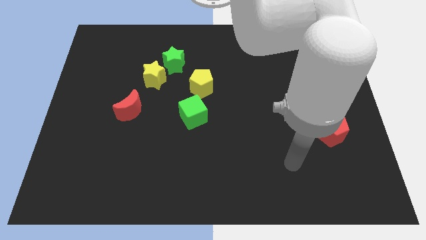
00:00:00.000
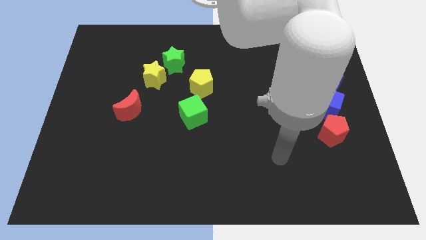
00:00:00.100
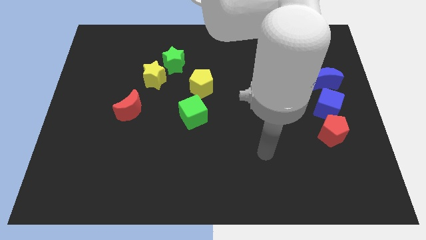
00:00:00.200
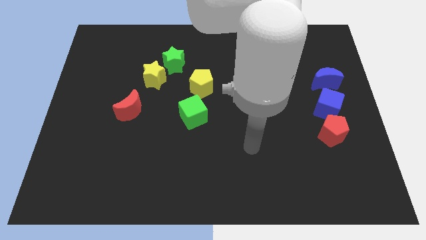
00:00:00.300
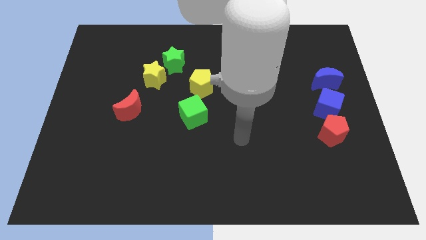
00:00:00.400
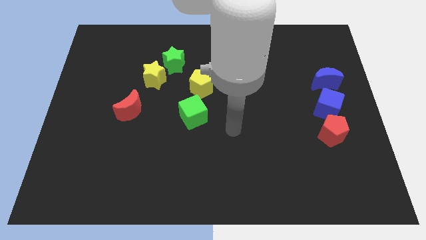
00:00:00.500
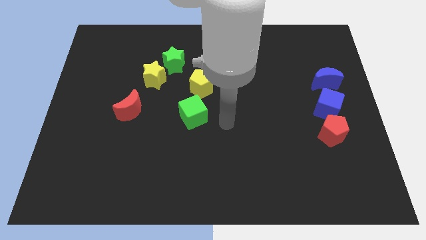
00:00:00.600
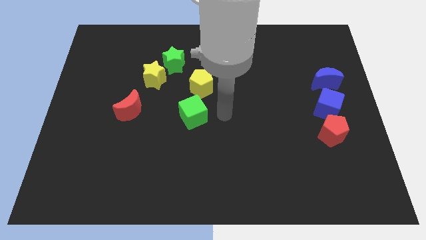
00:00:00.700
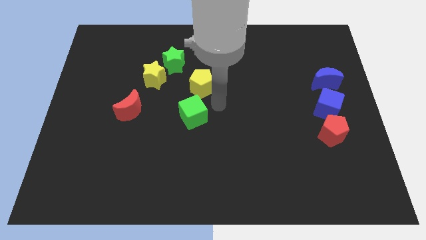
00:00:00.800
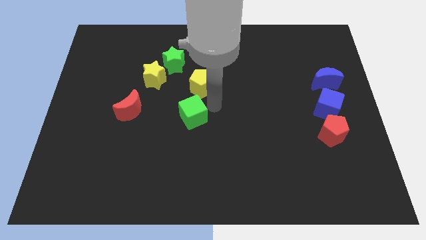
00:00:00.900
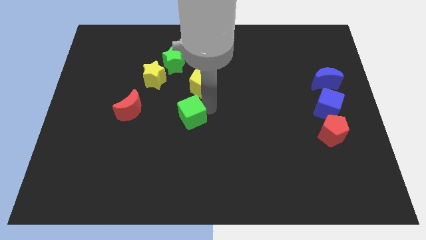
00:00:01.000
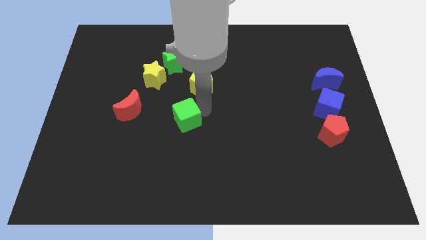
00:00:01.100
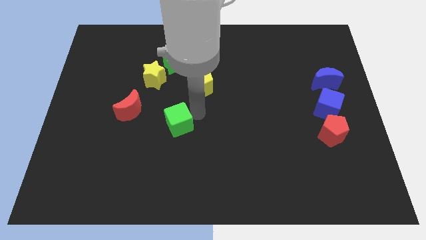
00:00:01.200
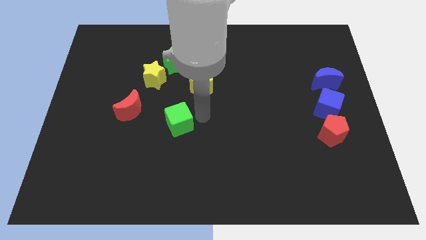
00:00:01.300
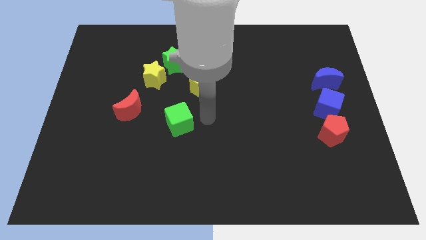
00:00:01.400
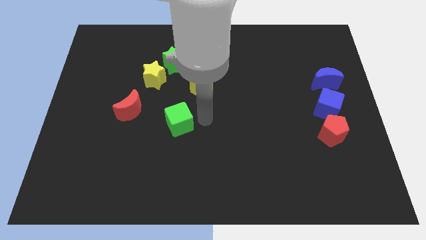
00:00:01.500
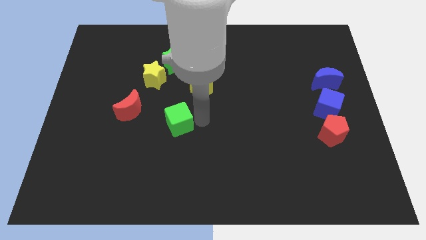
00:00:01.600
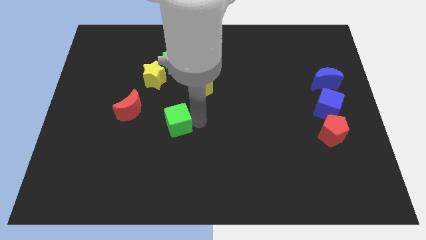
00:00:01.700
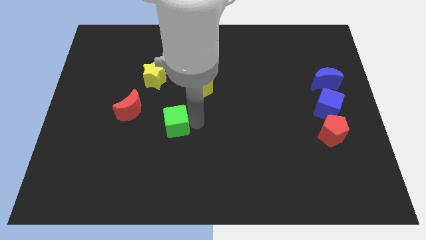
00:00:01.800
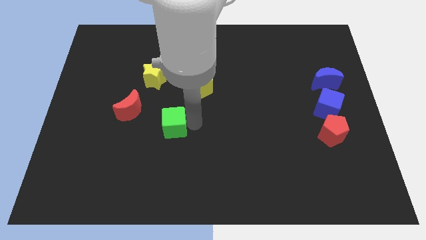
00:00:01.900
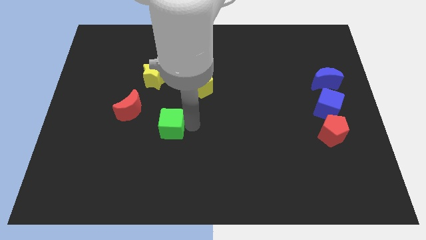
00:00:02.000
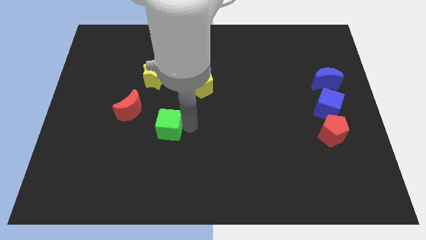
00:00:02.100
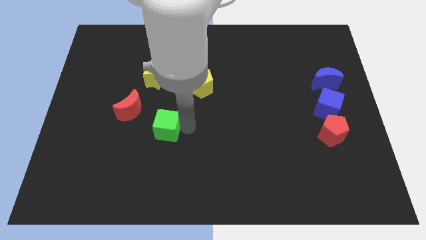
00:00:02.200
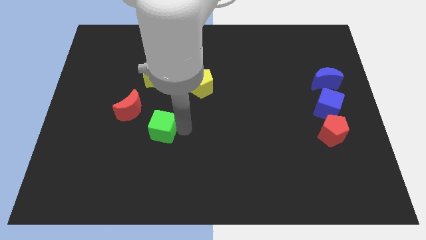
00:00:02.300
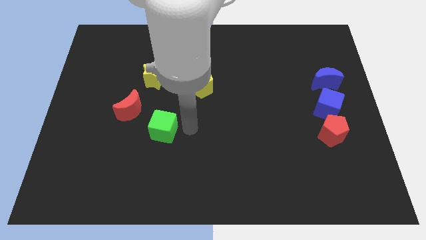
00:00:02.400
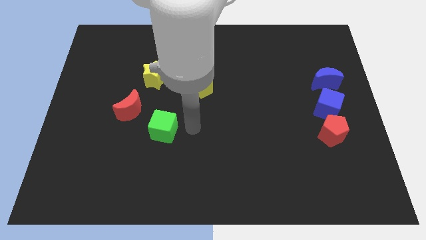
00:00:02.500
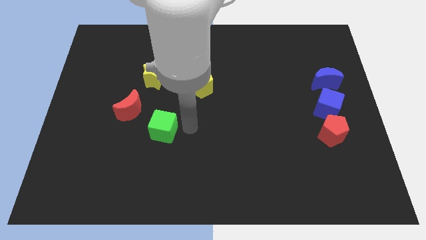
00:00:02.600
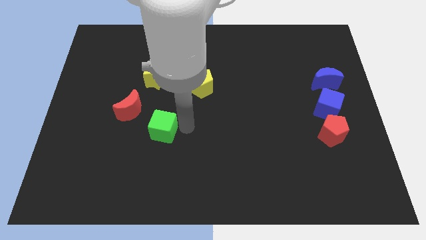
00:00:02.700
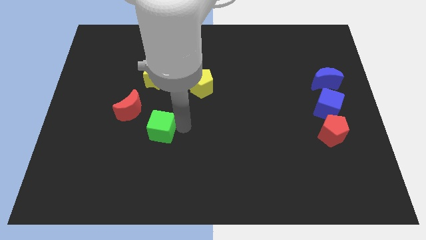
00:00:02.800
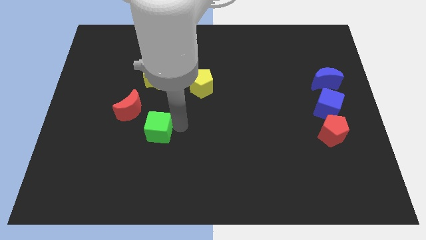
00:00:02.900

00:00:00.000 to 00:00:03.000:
slightly push the green cube to the left

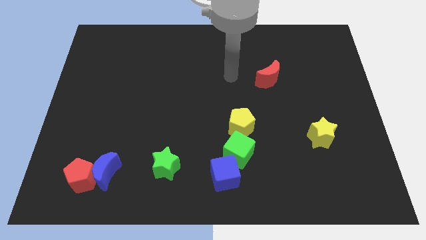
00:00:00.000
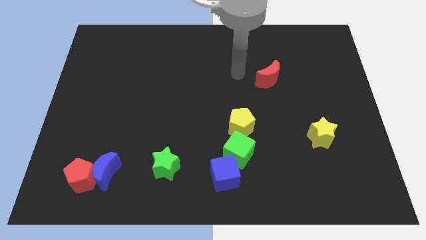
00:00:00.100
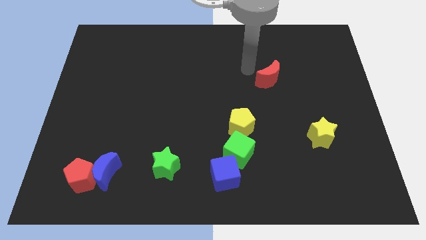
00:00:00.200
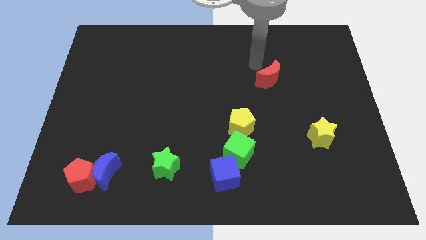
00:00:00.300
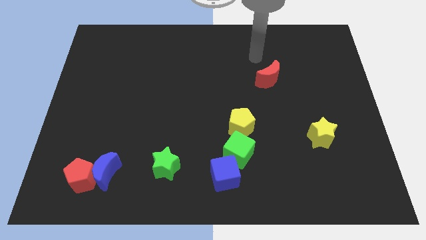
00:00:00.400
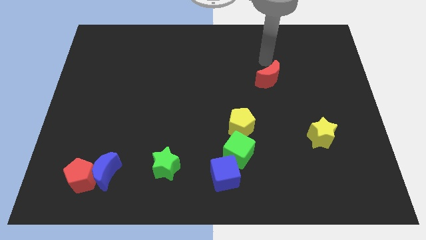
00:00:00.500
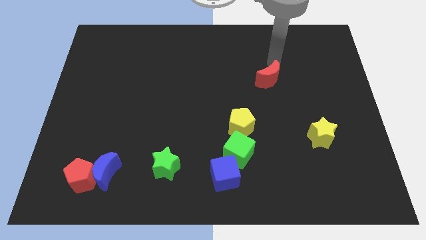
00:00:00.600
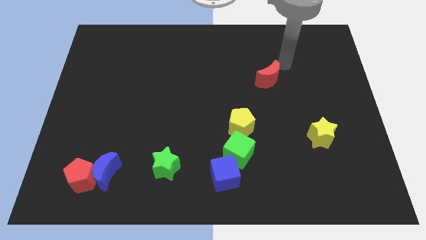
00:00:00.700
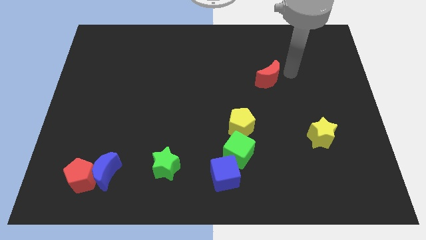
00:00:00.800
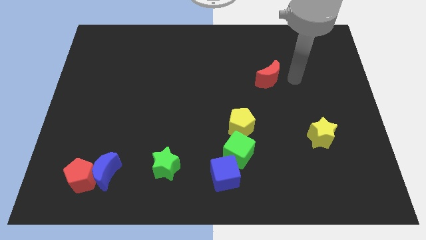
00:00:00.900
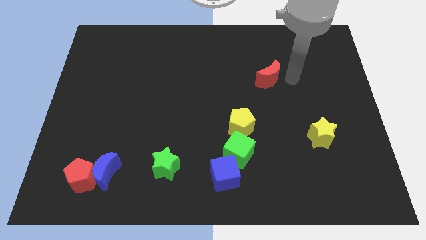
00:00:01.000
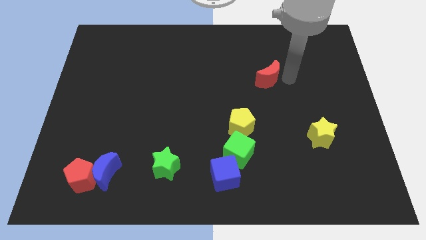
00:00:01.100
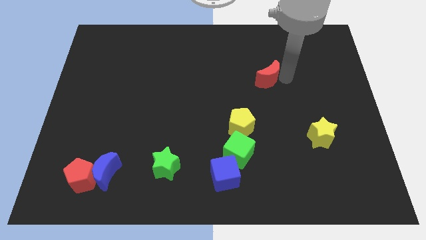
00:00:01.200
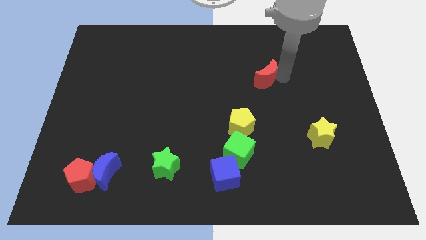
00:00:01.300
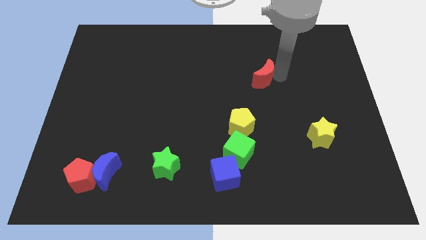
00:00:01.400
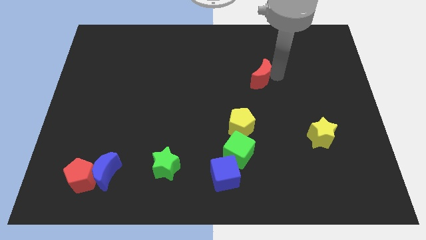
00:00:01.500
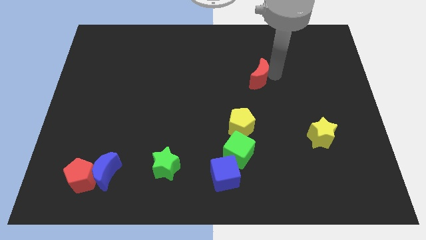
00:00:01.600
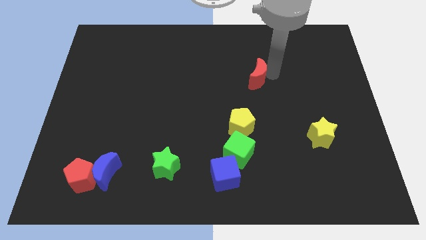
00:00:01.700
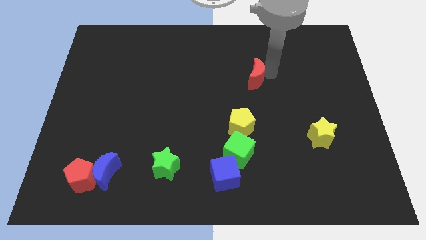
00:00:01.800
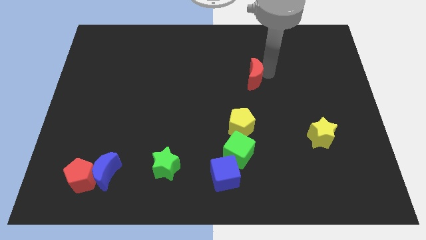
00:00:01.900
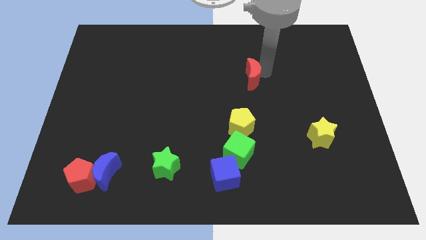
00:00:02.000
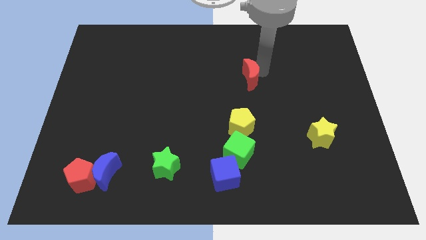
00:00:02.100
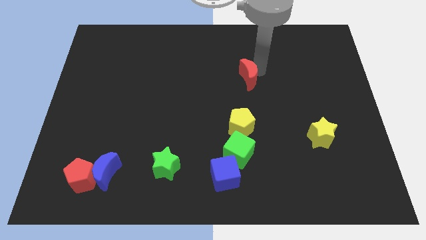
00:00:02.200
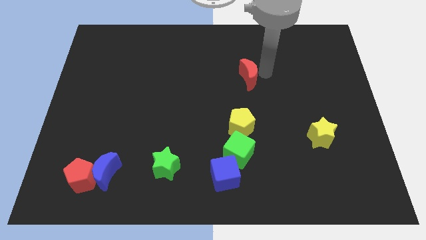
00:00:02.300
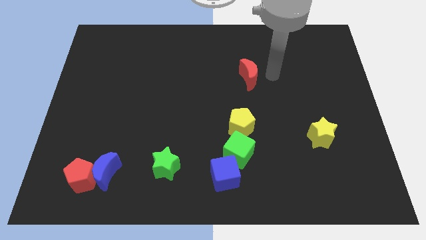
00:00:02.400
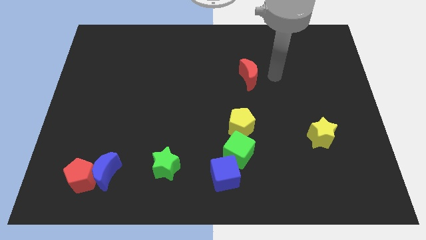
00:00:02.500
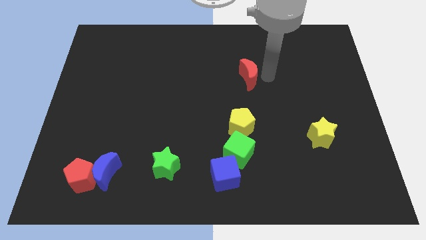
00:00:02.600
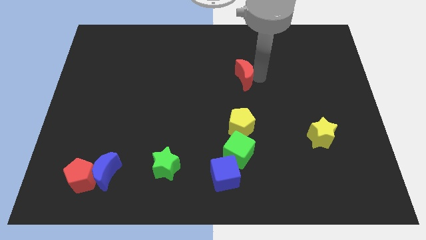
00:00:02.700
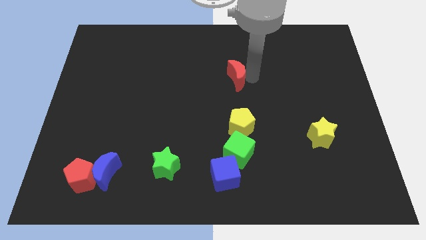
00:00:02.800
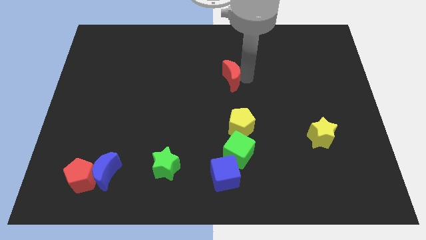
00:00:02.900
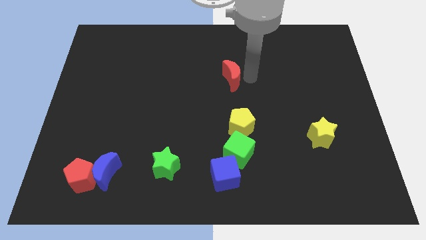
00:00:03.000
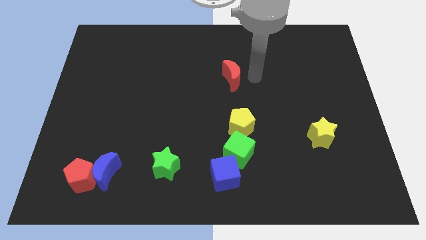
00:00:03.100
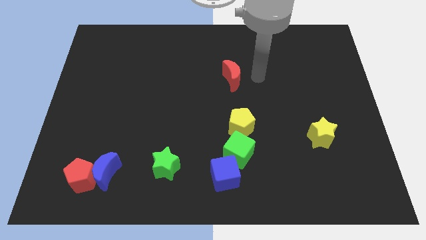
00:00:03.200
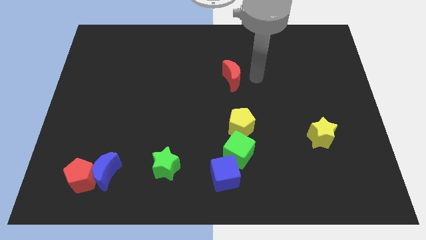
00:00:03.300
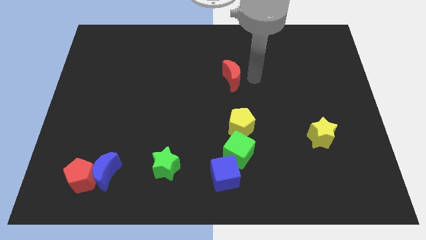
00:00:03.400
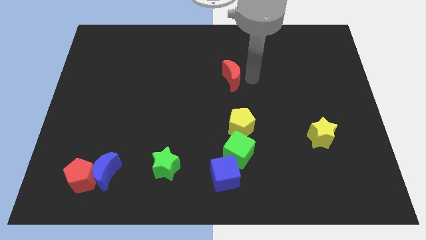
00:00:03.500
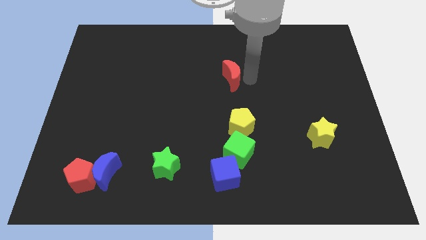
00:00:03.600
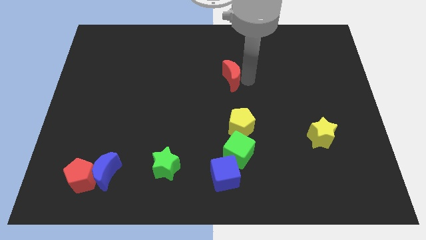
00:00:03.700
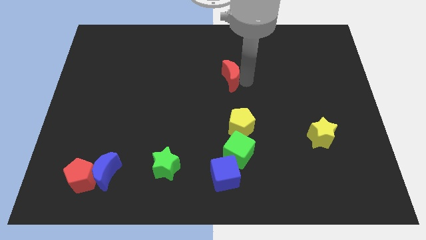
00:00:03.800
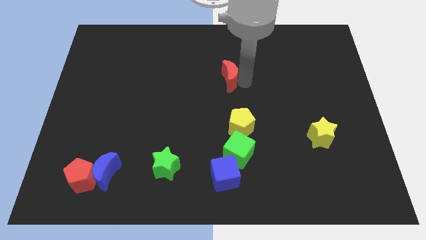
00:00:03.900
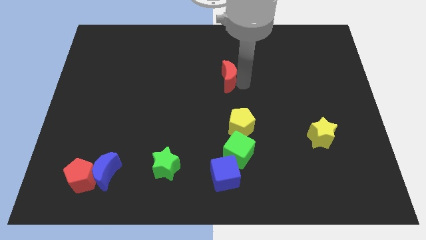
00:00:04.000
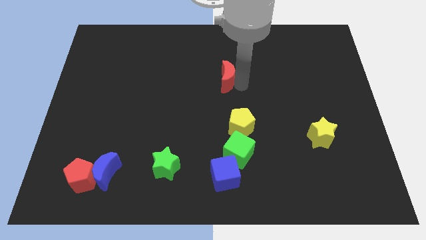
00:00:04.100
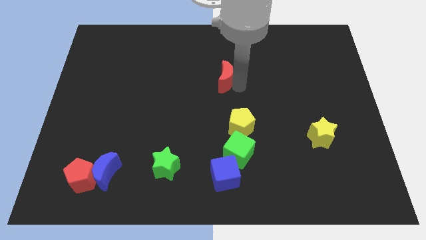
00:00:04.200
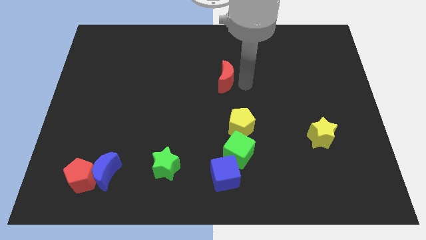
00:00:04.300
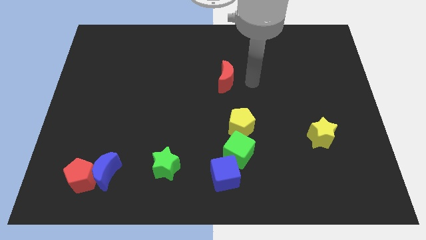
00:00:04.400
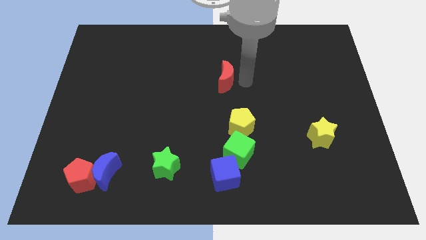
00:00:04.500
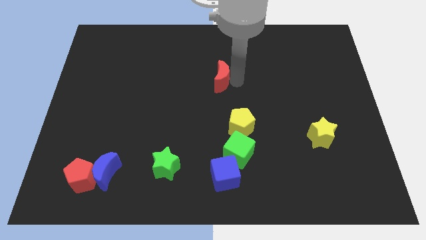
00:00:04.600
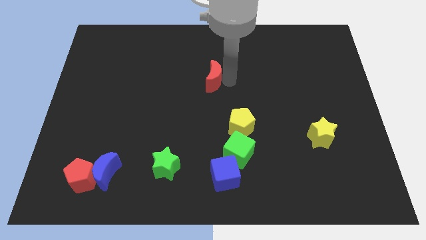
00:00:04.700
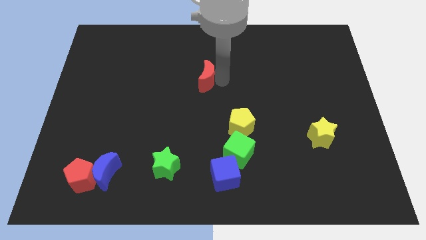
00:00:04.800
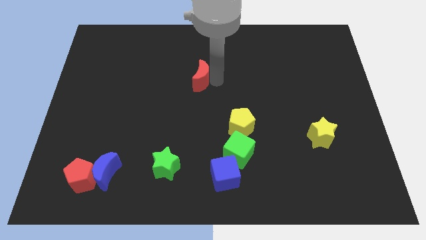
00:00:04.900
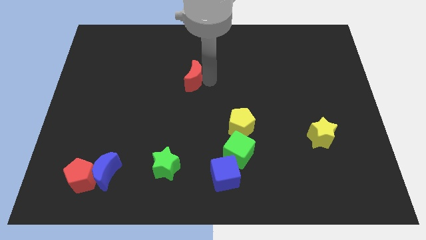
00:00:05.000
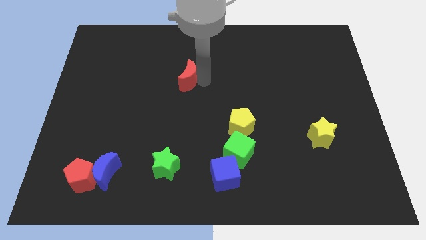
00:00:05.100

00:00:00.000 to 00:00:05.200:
push the red moon left
